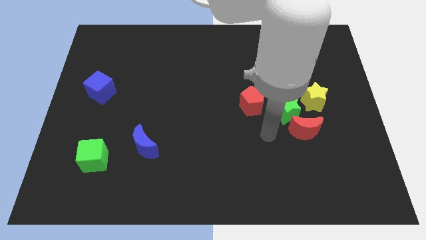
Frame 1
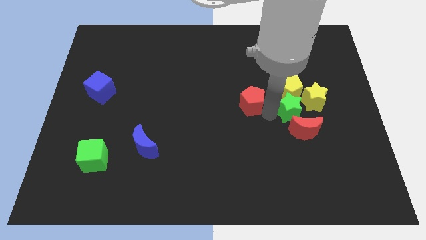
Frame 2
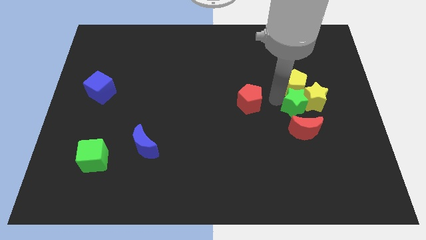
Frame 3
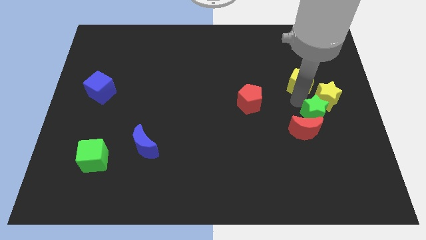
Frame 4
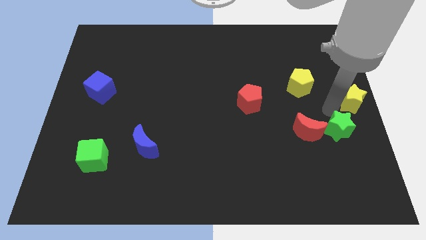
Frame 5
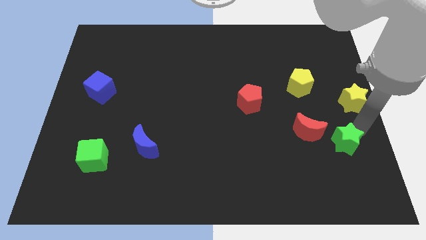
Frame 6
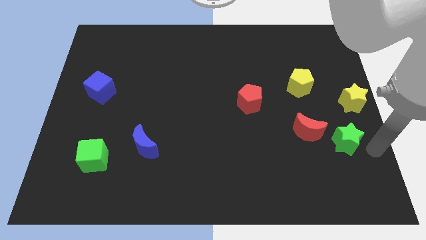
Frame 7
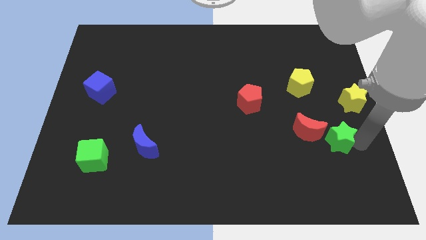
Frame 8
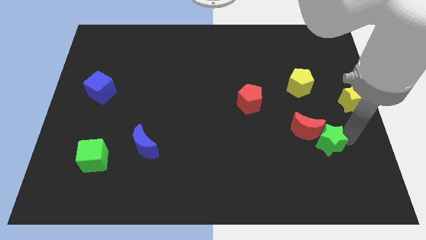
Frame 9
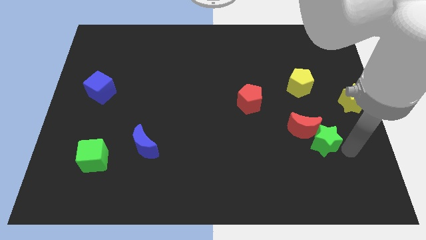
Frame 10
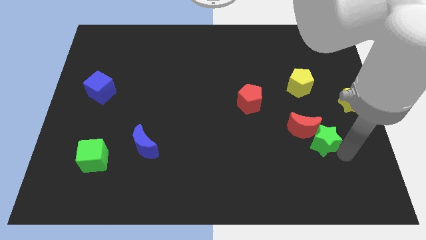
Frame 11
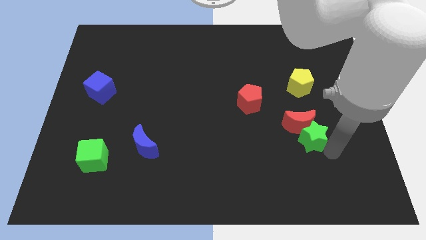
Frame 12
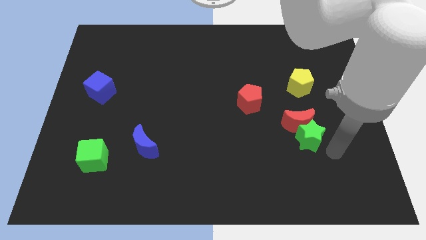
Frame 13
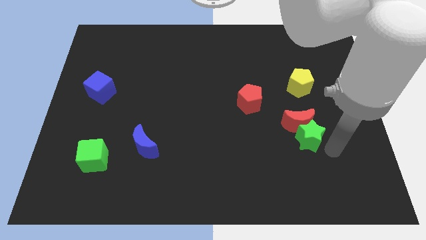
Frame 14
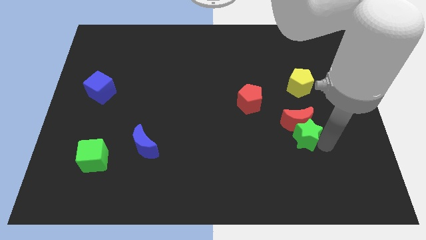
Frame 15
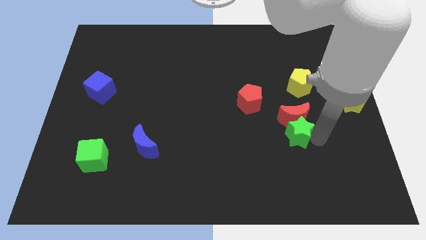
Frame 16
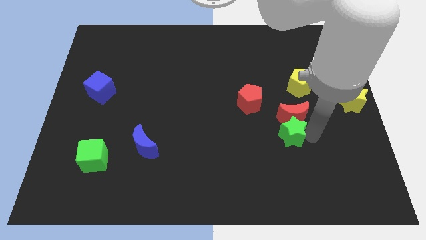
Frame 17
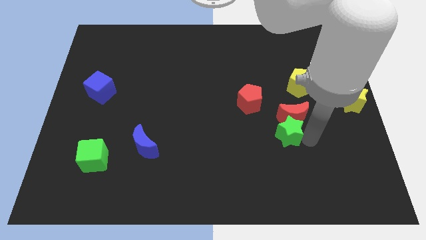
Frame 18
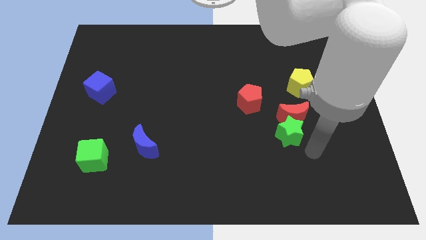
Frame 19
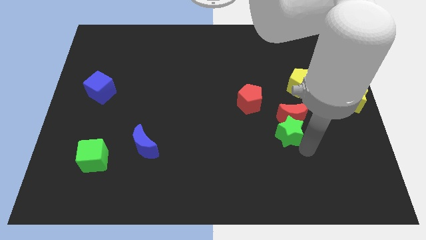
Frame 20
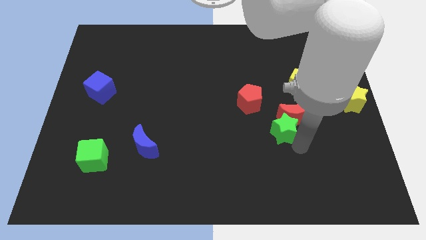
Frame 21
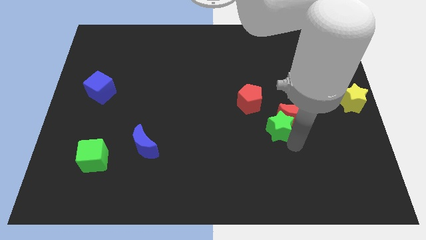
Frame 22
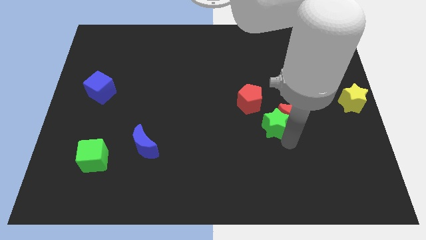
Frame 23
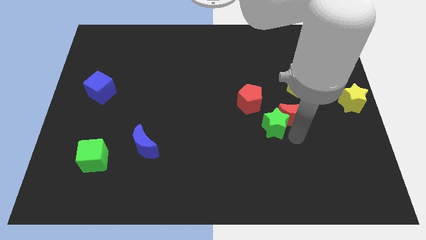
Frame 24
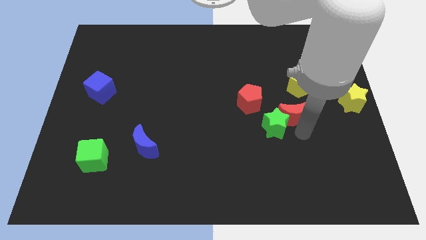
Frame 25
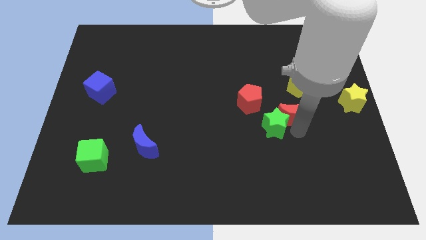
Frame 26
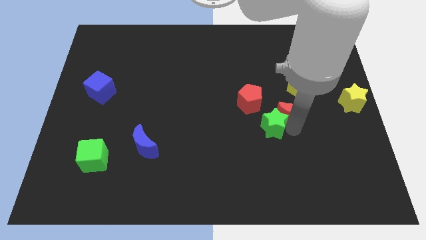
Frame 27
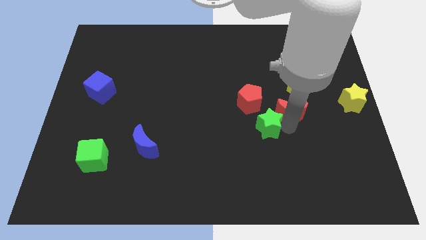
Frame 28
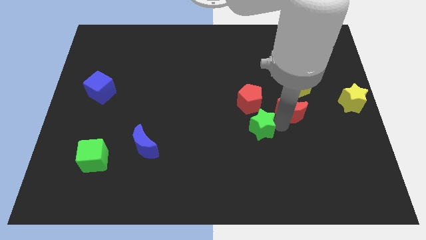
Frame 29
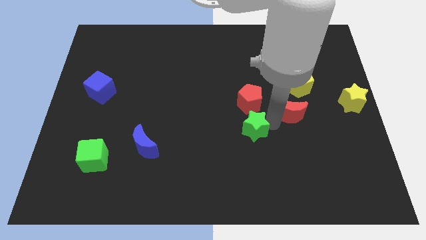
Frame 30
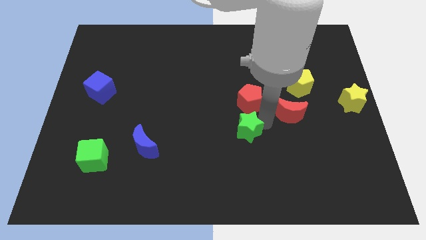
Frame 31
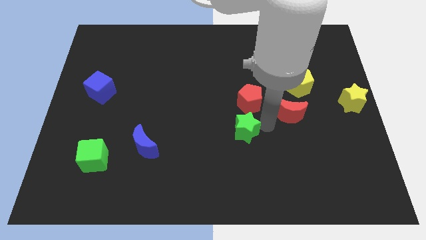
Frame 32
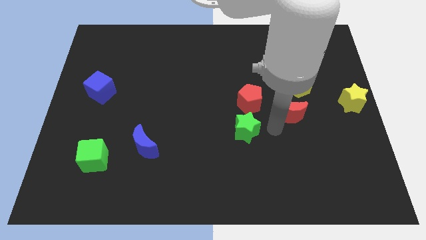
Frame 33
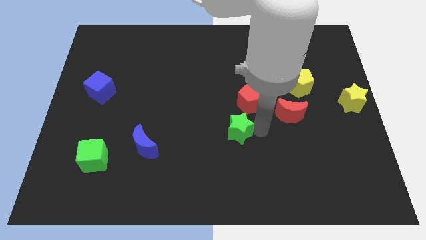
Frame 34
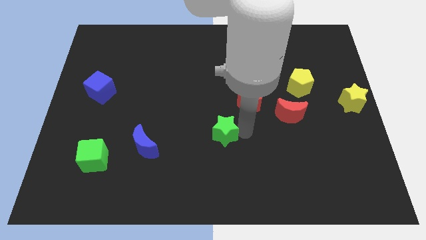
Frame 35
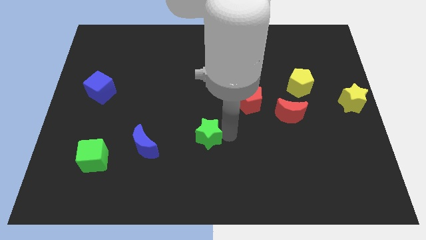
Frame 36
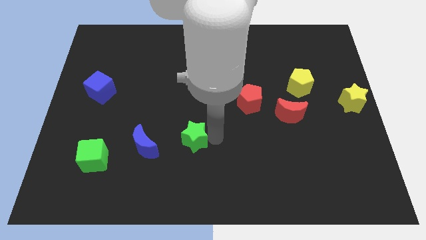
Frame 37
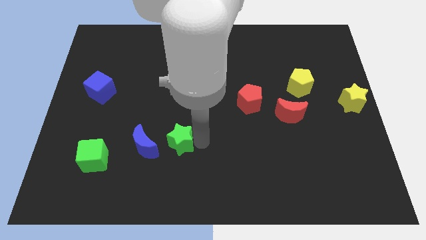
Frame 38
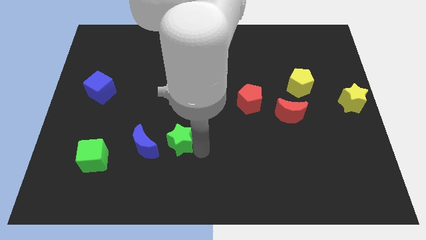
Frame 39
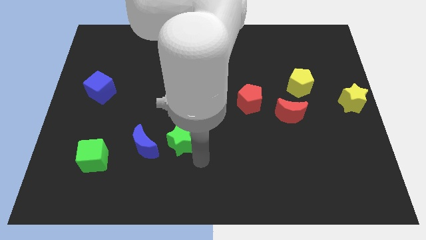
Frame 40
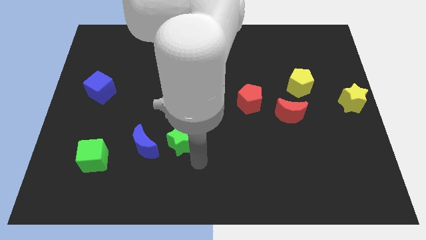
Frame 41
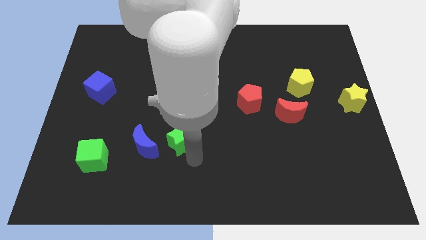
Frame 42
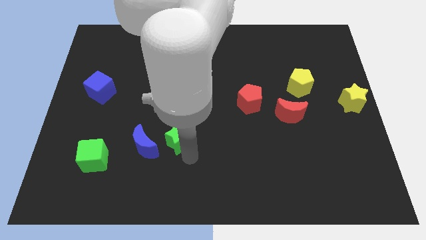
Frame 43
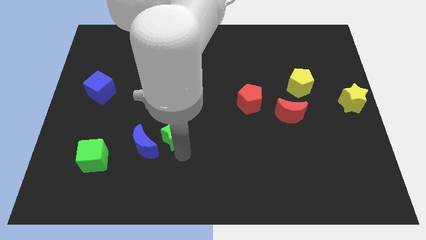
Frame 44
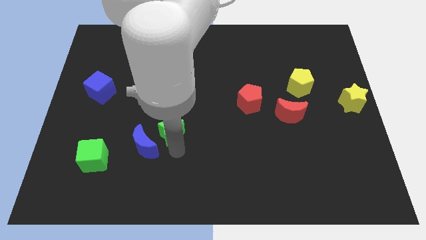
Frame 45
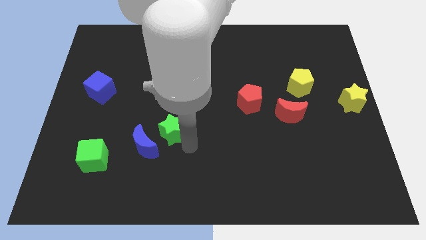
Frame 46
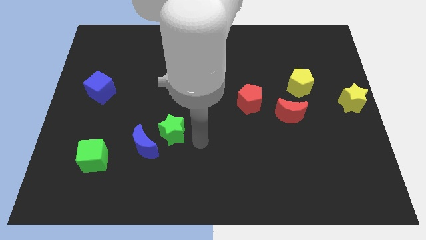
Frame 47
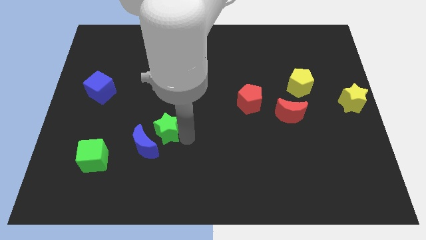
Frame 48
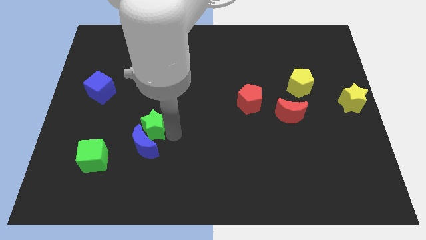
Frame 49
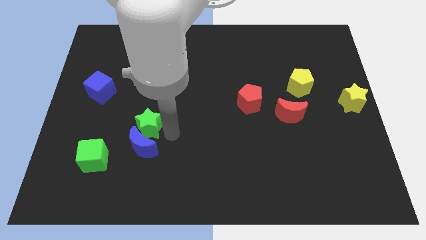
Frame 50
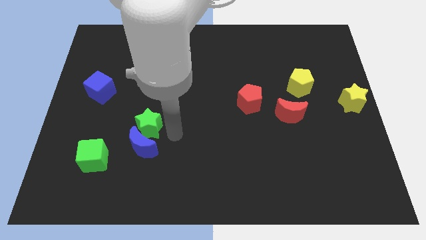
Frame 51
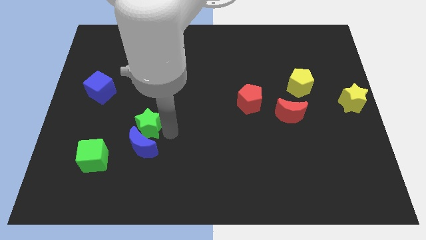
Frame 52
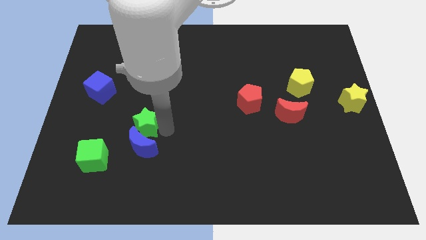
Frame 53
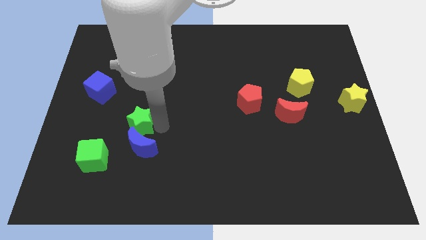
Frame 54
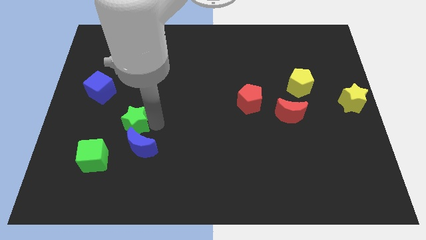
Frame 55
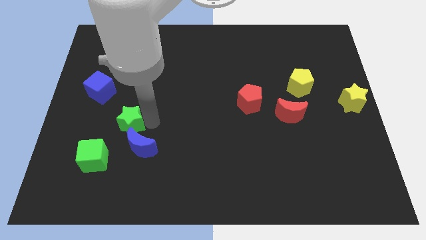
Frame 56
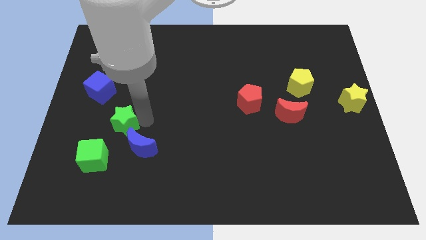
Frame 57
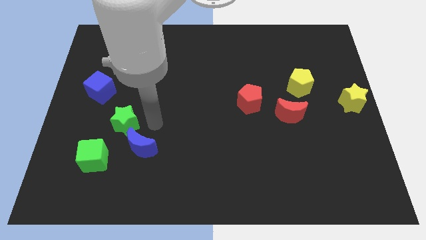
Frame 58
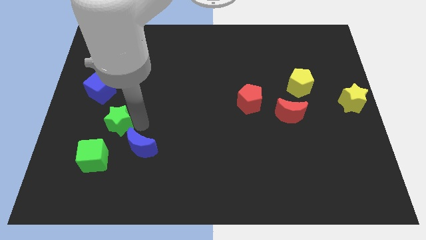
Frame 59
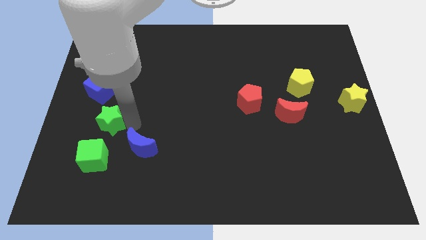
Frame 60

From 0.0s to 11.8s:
put the green star below the blue cube

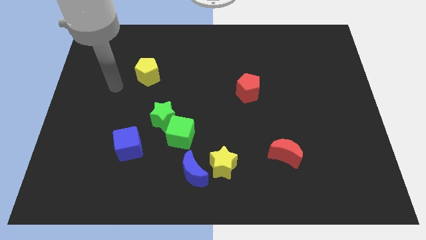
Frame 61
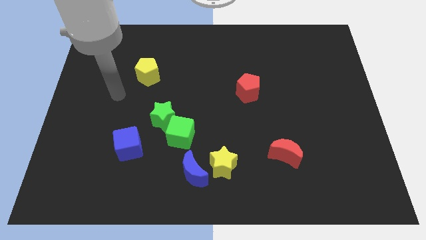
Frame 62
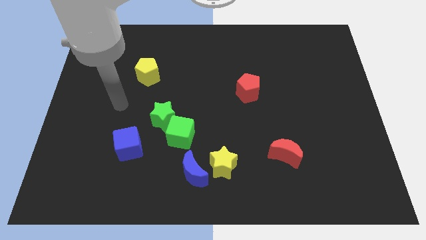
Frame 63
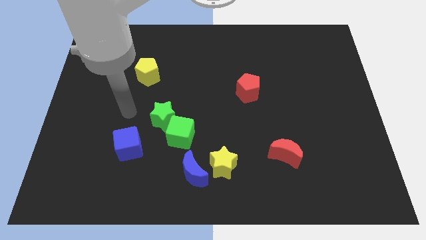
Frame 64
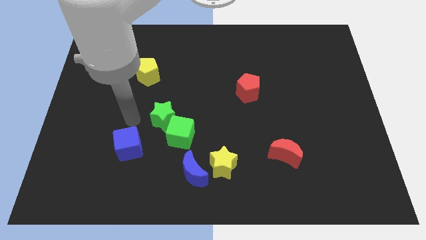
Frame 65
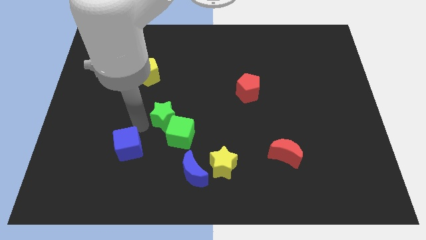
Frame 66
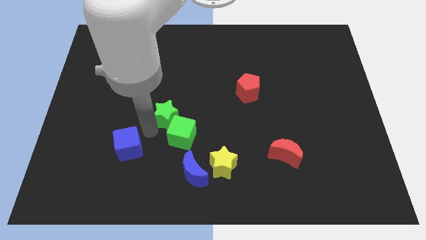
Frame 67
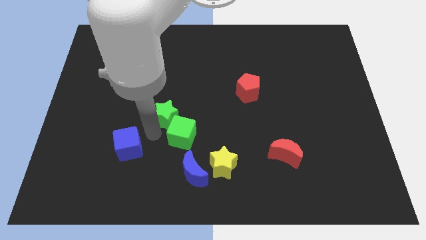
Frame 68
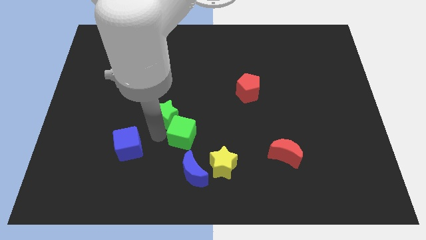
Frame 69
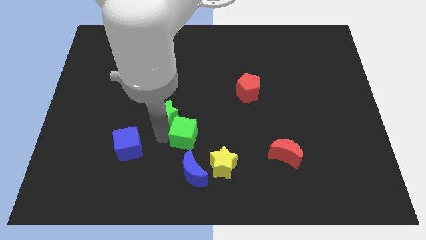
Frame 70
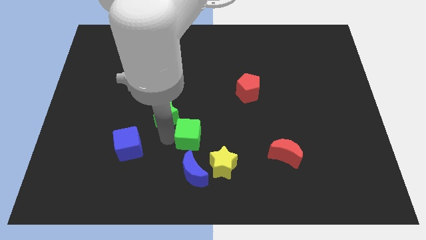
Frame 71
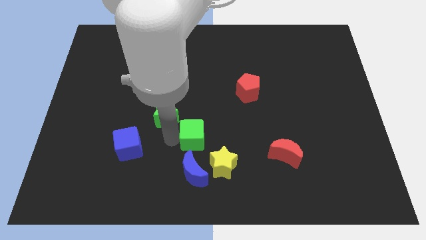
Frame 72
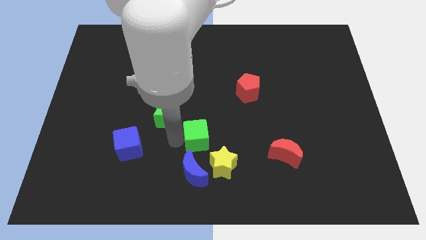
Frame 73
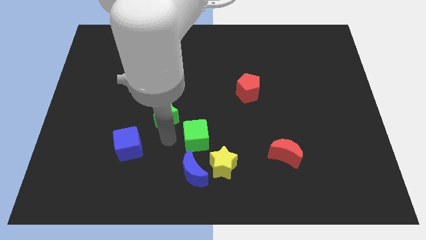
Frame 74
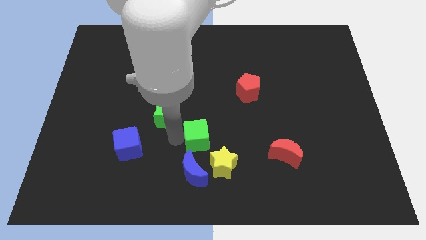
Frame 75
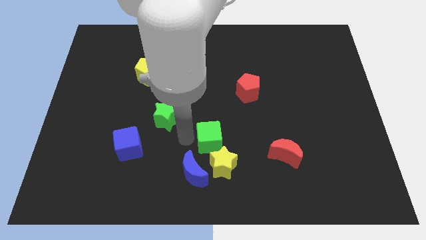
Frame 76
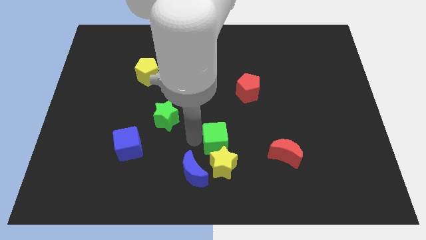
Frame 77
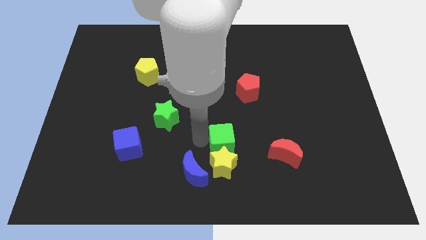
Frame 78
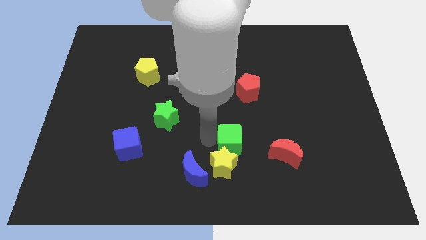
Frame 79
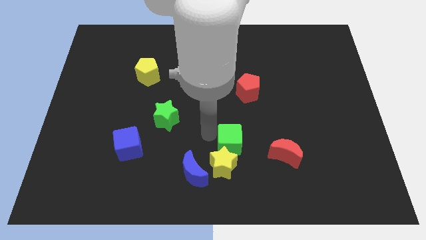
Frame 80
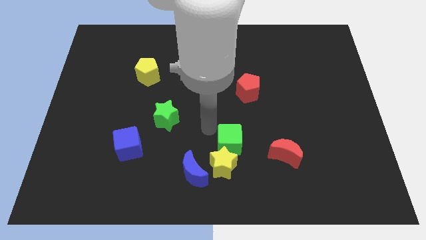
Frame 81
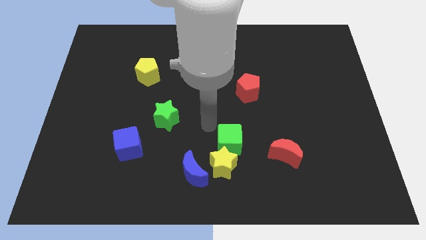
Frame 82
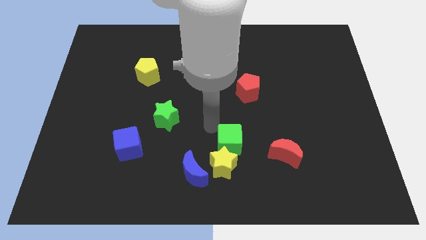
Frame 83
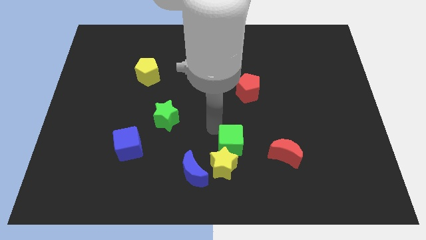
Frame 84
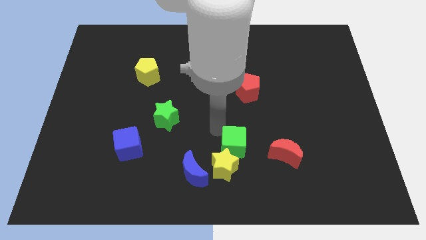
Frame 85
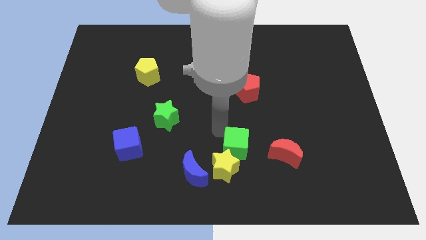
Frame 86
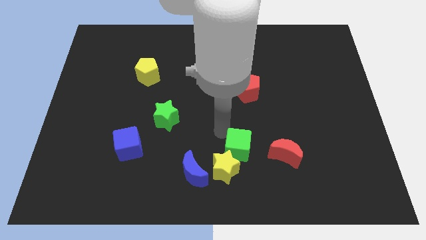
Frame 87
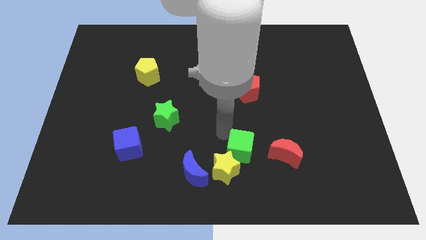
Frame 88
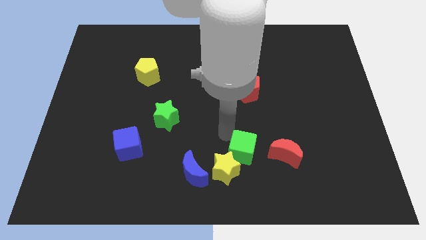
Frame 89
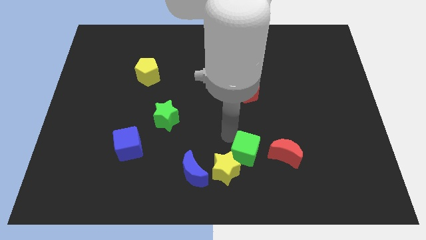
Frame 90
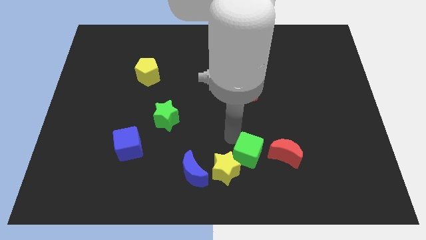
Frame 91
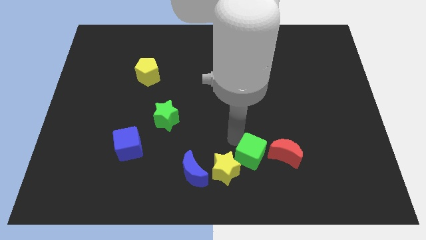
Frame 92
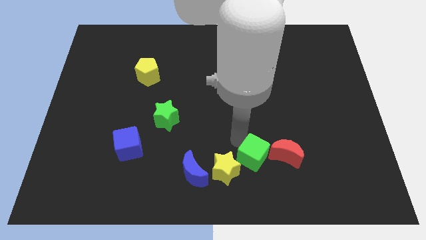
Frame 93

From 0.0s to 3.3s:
slide the green cube to the bottom left of the red moon
